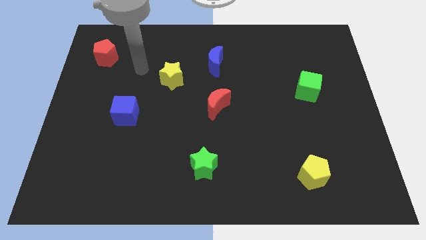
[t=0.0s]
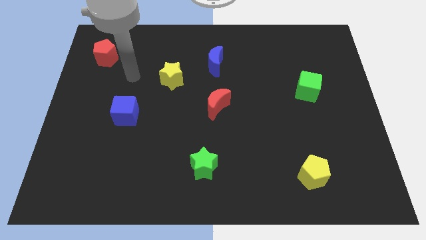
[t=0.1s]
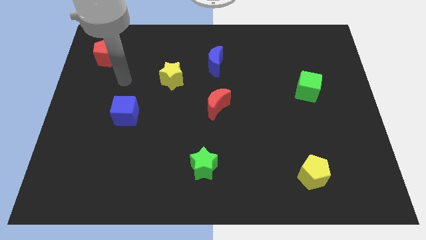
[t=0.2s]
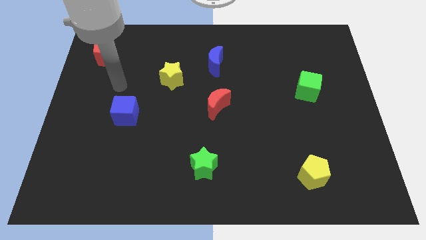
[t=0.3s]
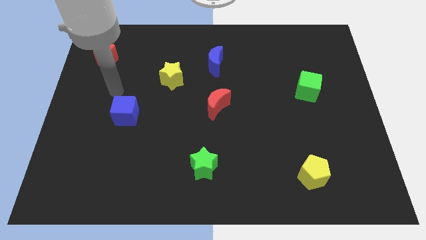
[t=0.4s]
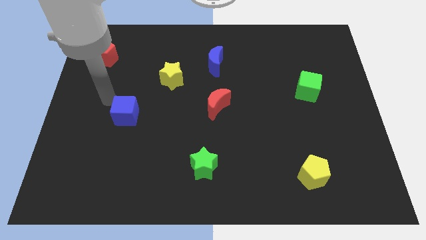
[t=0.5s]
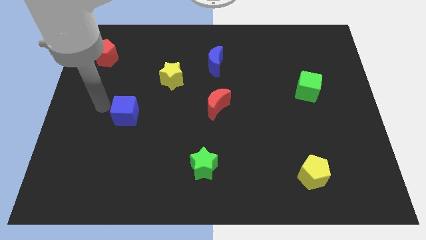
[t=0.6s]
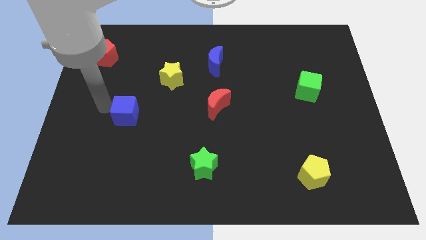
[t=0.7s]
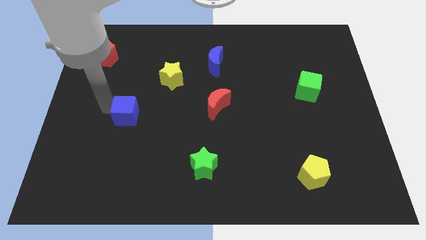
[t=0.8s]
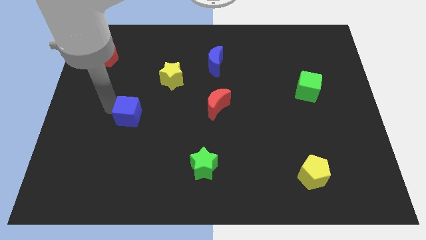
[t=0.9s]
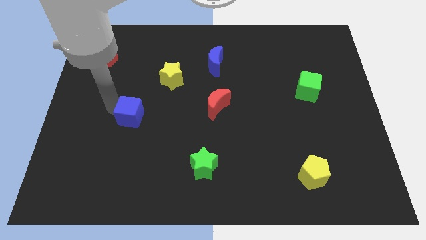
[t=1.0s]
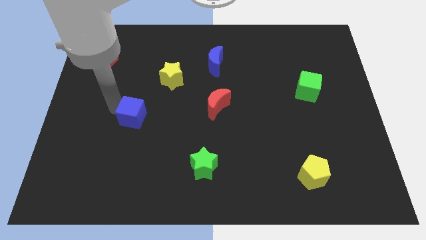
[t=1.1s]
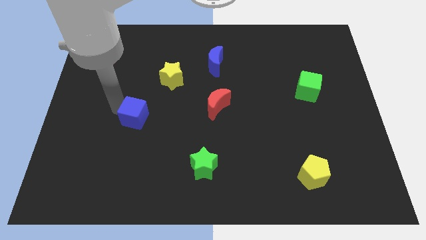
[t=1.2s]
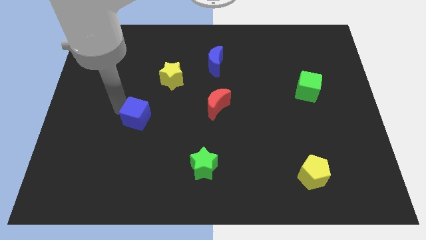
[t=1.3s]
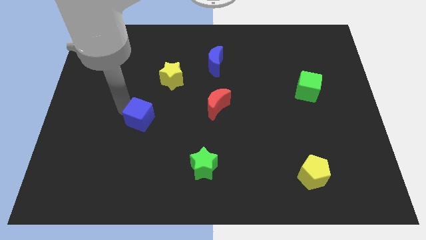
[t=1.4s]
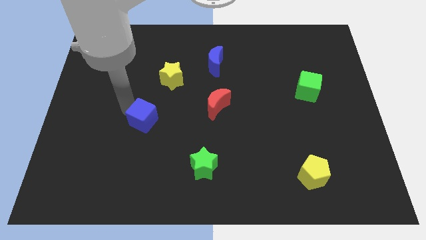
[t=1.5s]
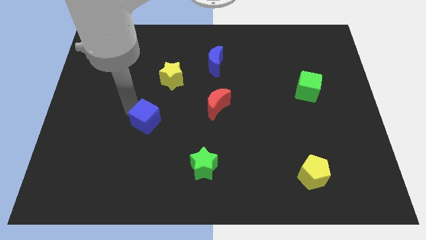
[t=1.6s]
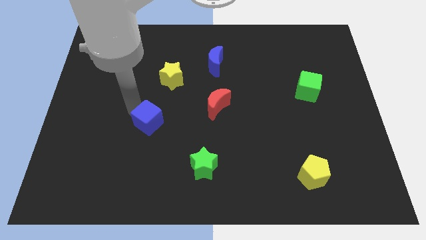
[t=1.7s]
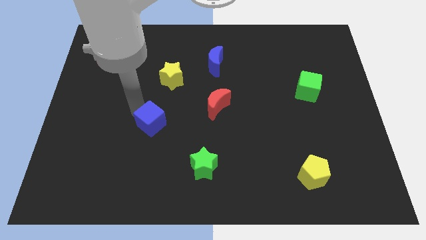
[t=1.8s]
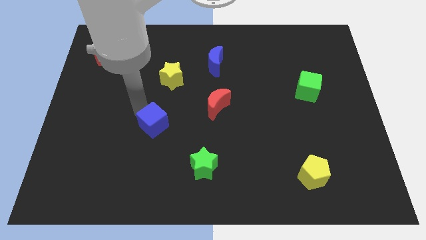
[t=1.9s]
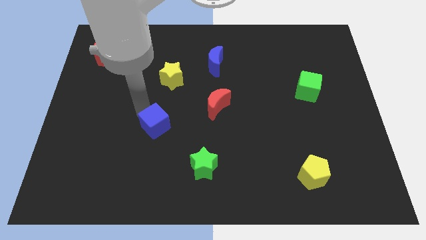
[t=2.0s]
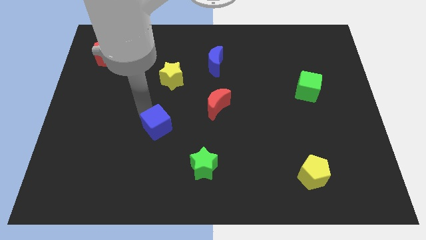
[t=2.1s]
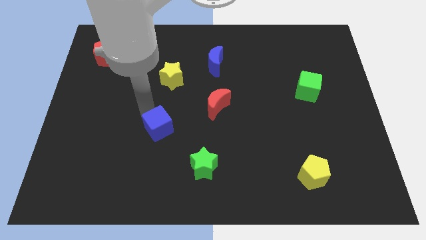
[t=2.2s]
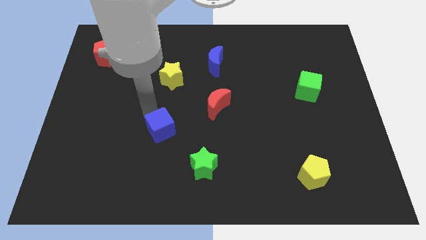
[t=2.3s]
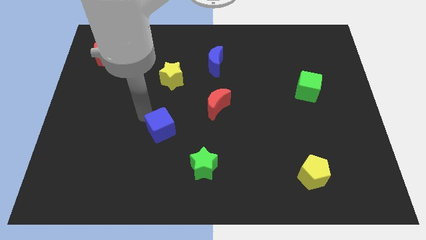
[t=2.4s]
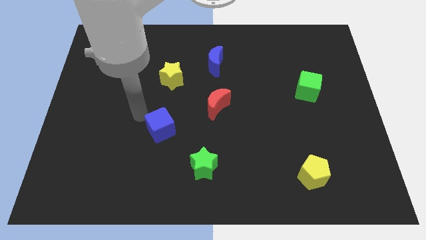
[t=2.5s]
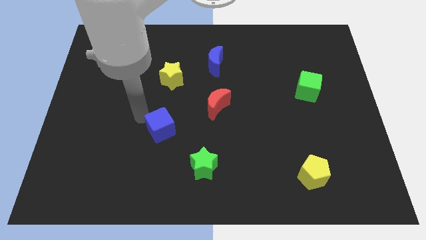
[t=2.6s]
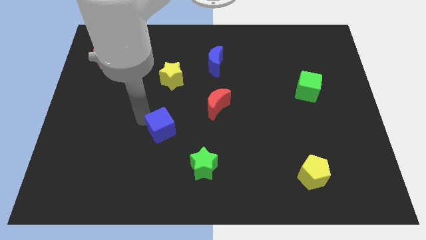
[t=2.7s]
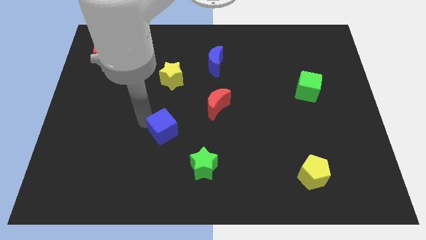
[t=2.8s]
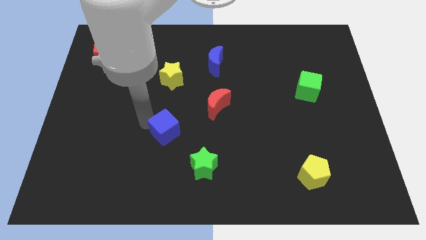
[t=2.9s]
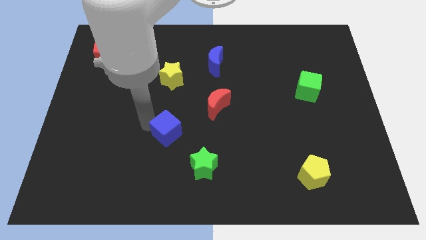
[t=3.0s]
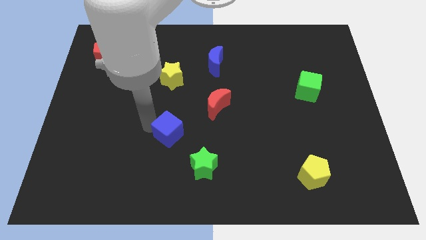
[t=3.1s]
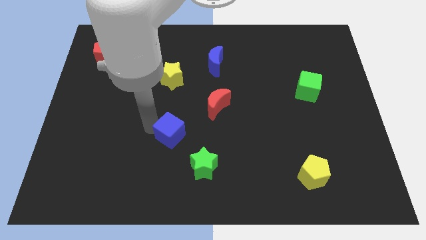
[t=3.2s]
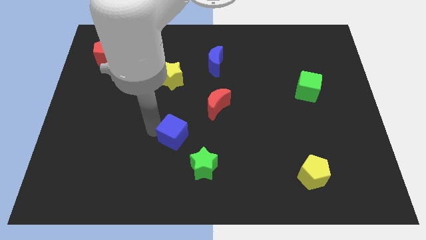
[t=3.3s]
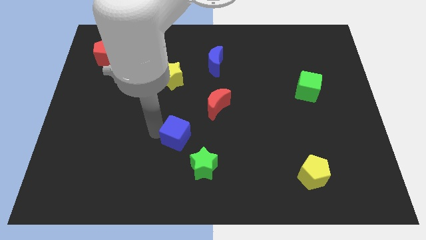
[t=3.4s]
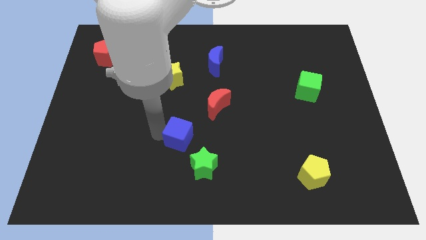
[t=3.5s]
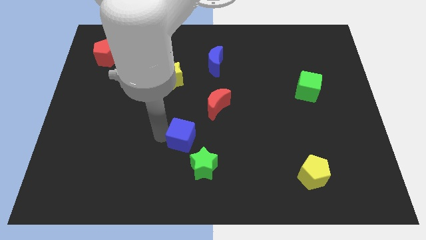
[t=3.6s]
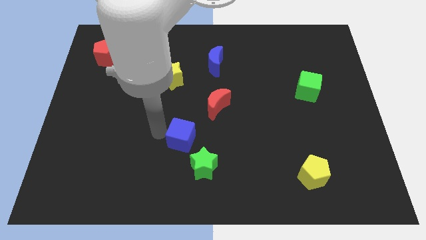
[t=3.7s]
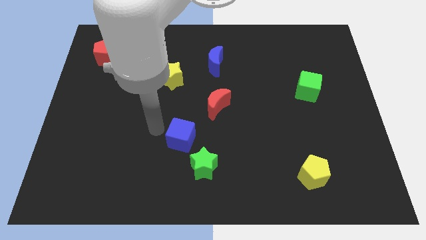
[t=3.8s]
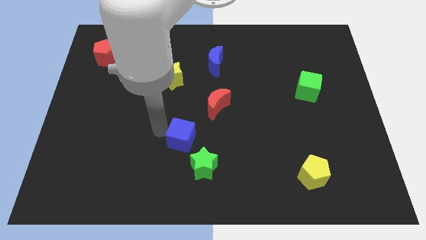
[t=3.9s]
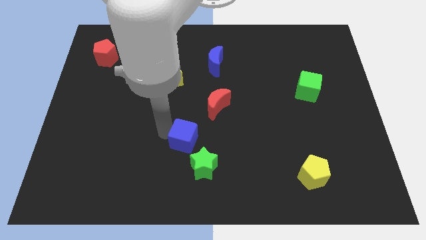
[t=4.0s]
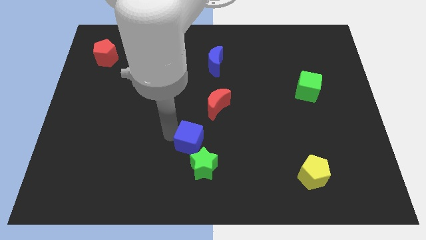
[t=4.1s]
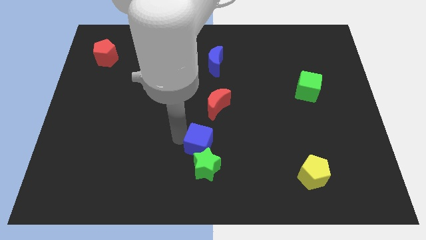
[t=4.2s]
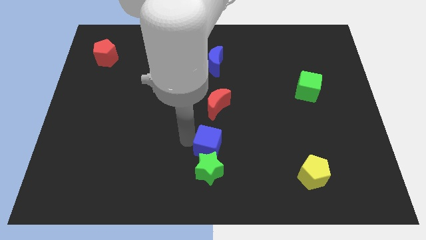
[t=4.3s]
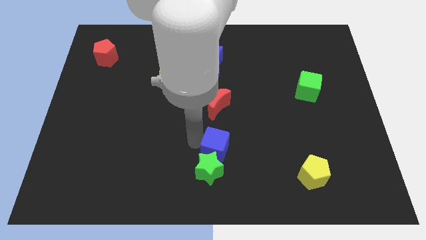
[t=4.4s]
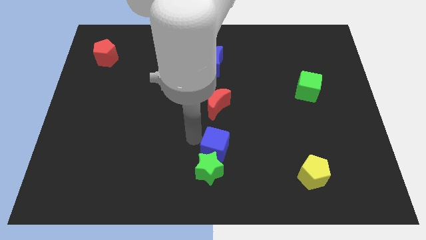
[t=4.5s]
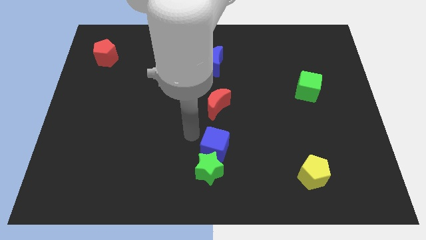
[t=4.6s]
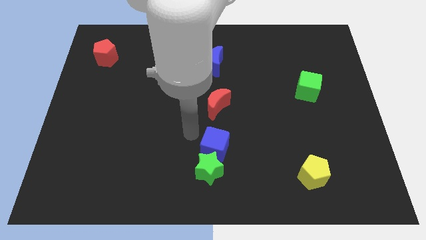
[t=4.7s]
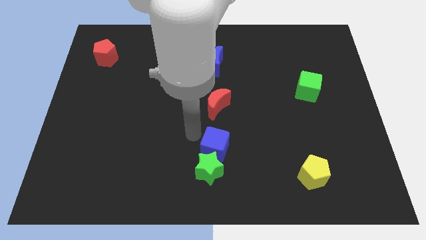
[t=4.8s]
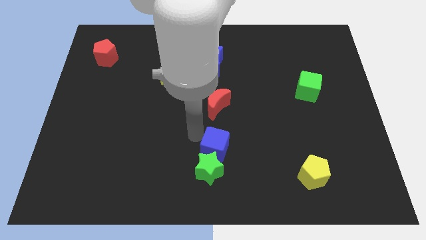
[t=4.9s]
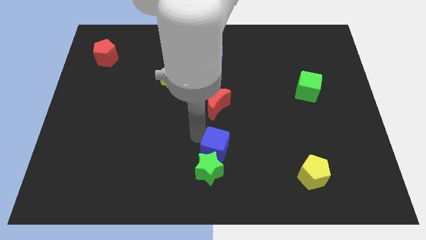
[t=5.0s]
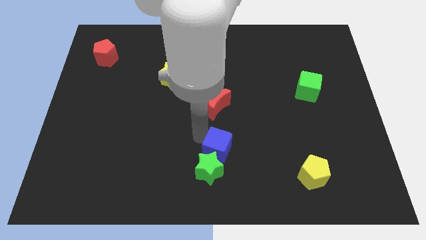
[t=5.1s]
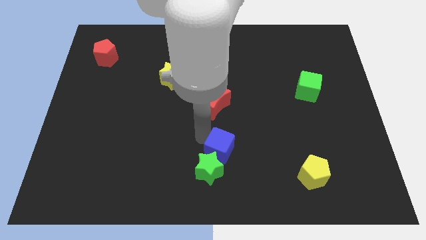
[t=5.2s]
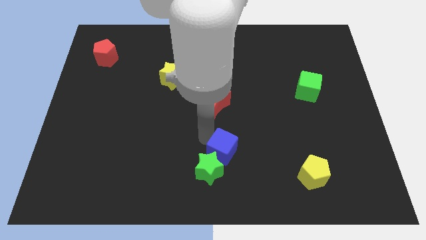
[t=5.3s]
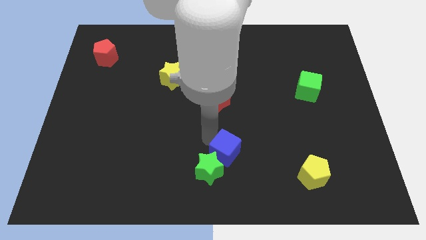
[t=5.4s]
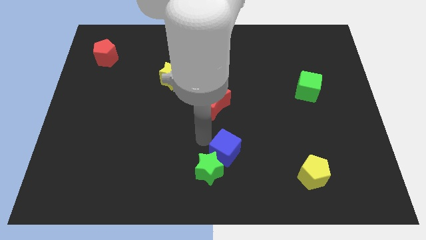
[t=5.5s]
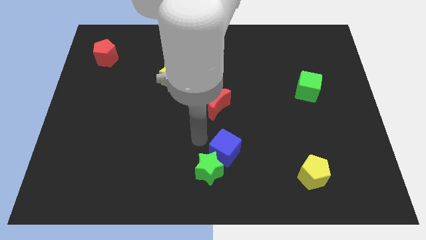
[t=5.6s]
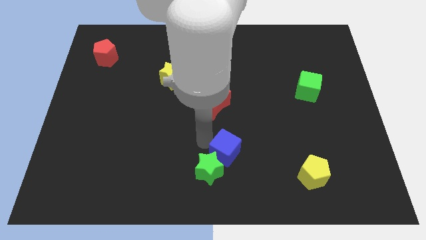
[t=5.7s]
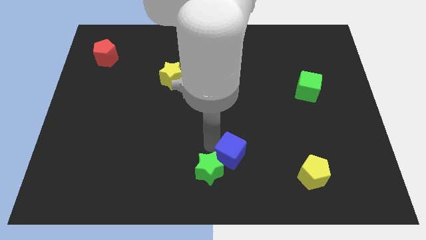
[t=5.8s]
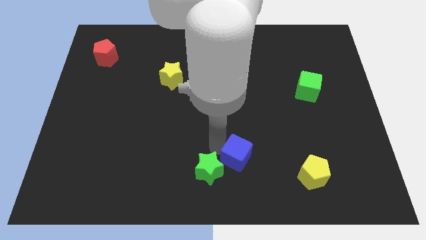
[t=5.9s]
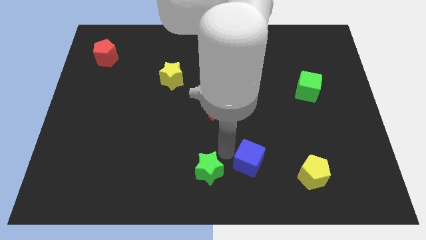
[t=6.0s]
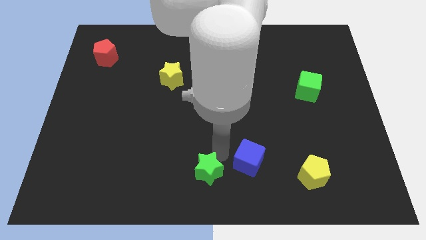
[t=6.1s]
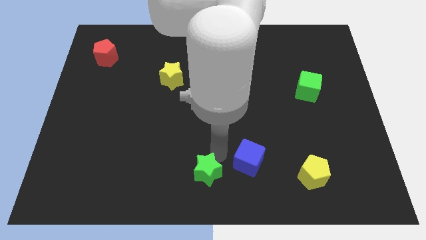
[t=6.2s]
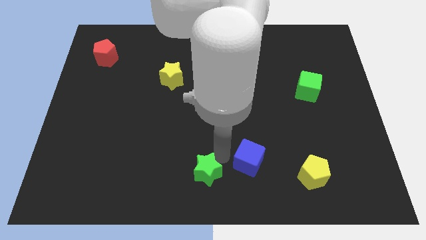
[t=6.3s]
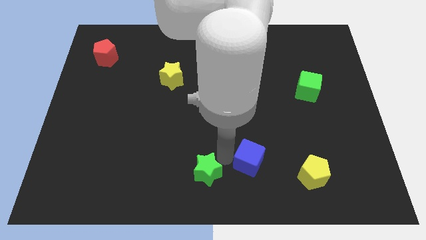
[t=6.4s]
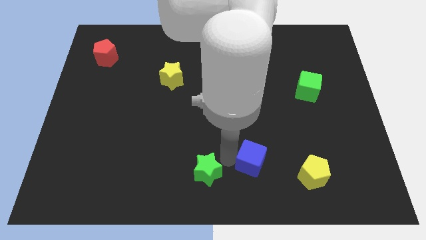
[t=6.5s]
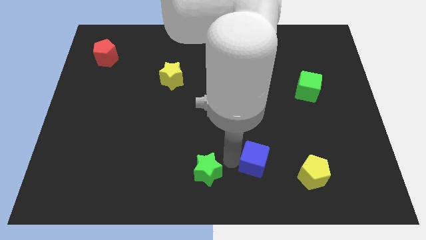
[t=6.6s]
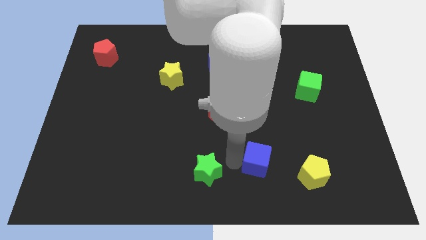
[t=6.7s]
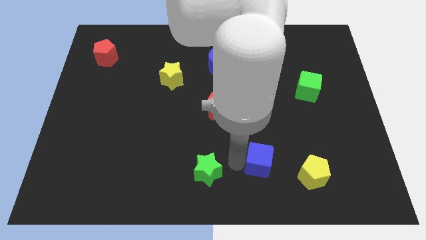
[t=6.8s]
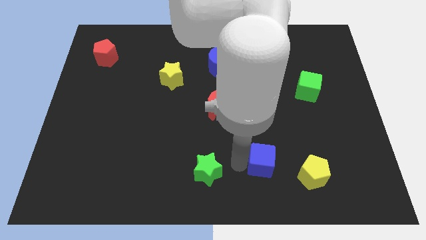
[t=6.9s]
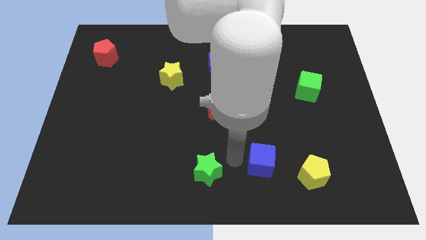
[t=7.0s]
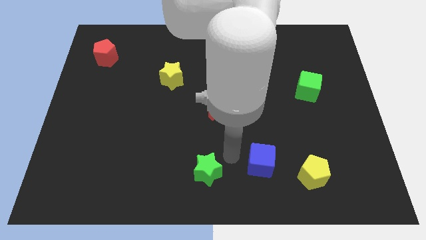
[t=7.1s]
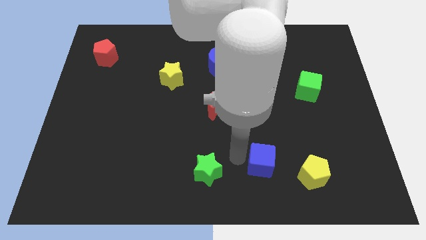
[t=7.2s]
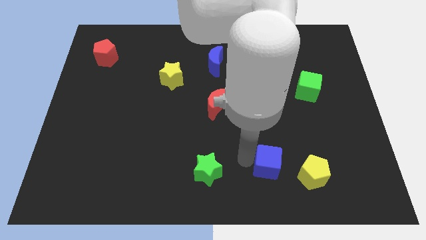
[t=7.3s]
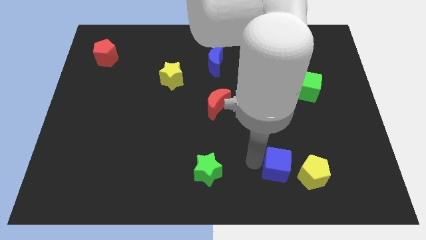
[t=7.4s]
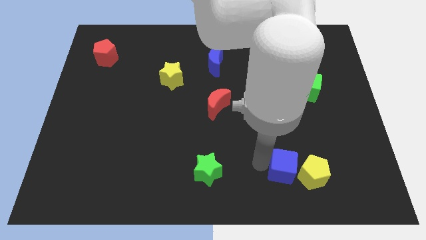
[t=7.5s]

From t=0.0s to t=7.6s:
put the blue cube to the yellow pentagon
